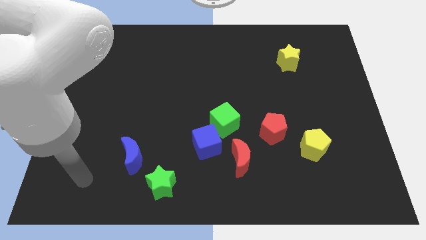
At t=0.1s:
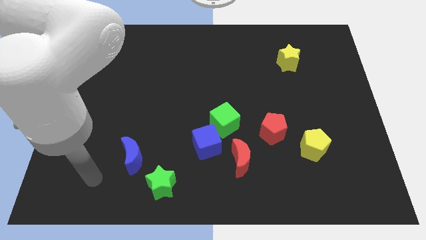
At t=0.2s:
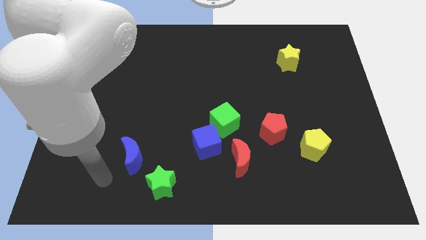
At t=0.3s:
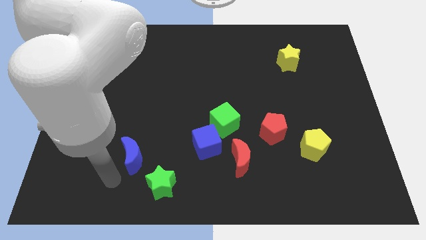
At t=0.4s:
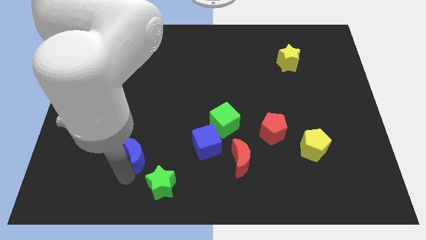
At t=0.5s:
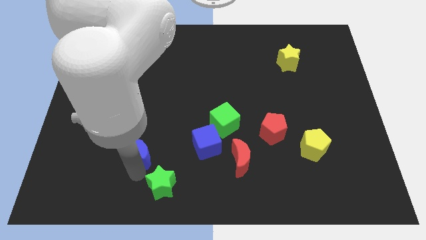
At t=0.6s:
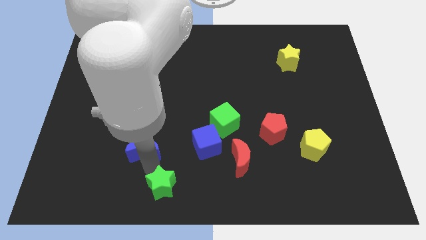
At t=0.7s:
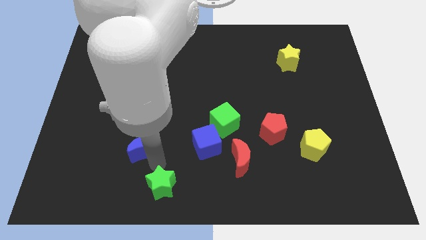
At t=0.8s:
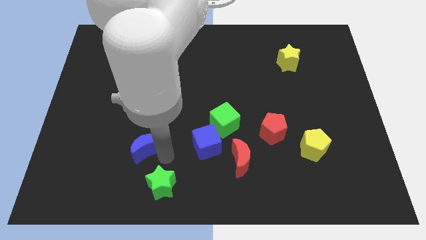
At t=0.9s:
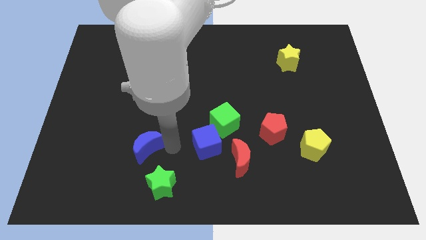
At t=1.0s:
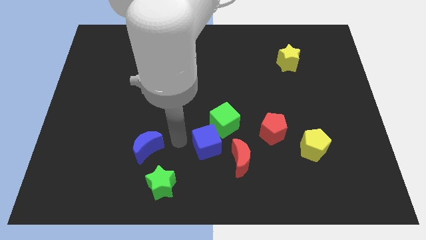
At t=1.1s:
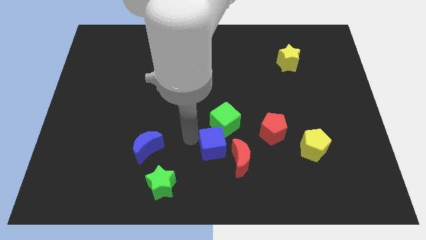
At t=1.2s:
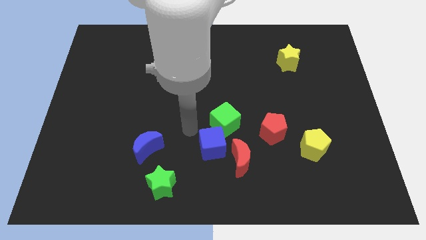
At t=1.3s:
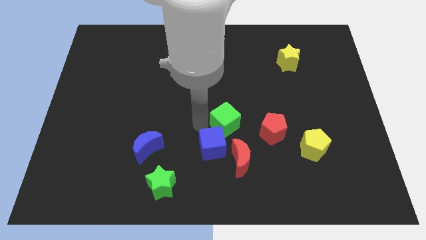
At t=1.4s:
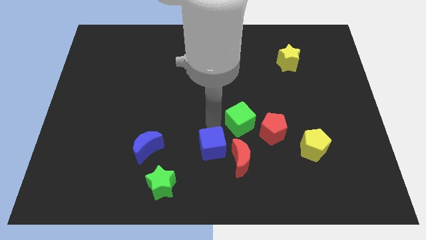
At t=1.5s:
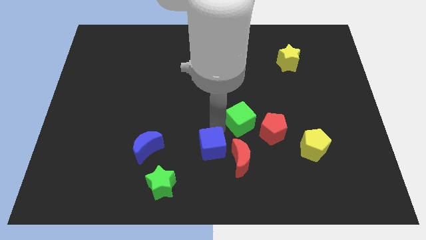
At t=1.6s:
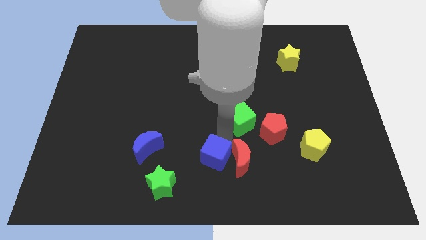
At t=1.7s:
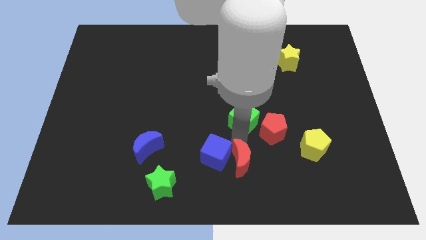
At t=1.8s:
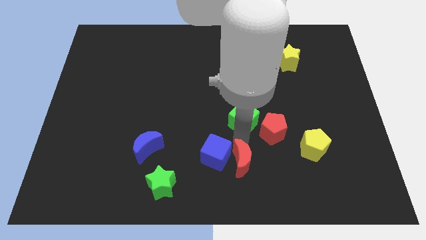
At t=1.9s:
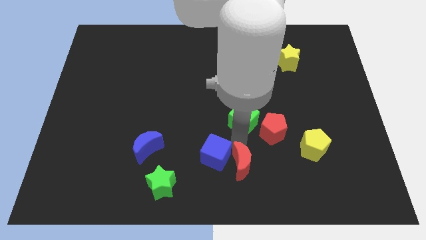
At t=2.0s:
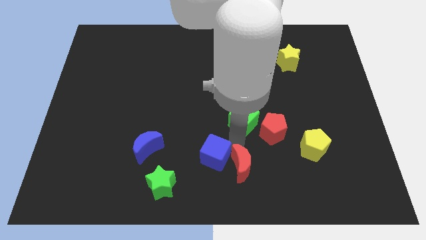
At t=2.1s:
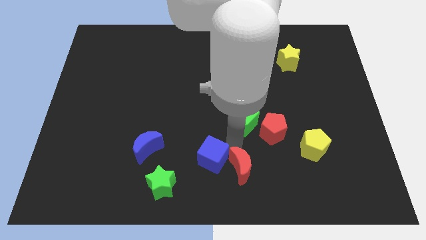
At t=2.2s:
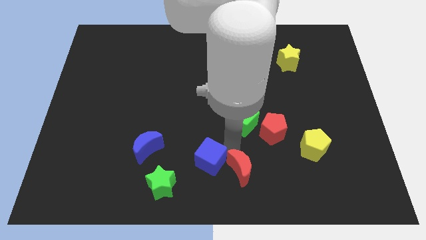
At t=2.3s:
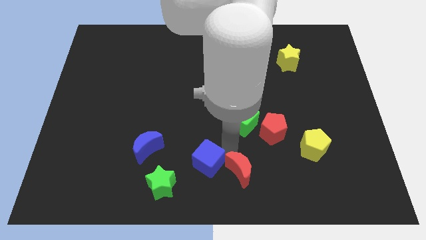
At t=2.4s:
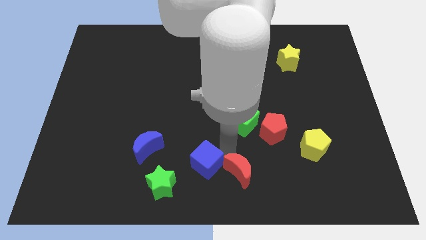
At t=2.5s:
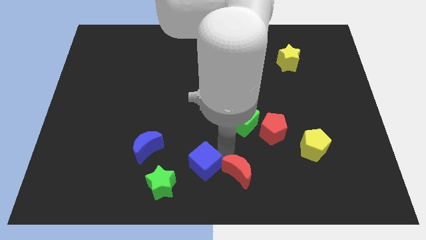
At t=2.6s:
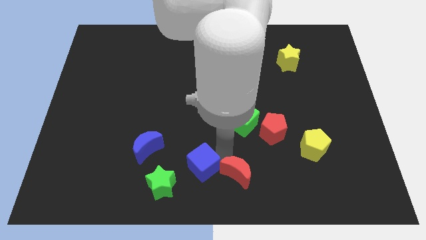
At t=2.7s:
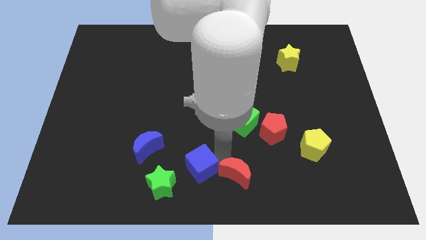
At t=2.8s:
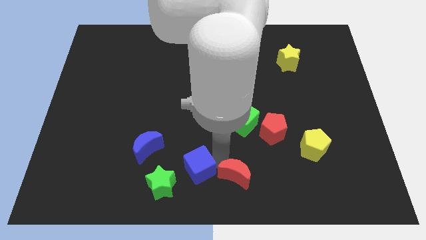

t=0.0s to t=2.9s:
move the blue cube away from the green cube and red moon

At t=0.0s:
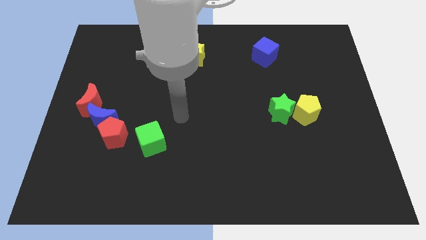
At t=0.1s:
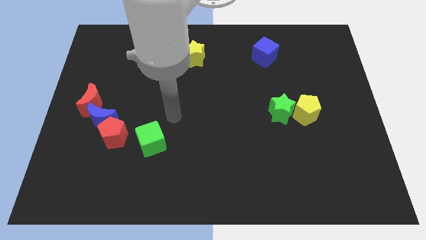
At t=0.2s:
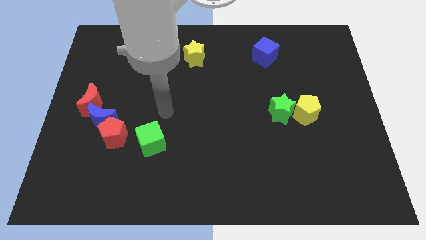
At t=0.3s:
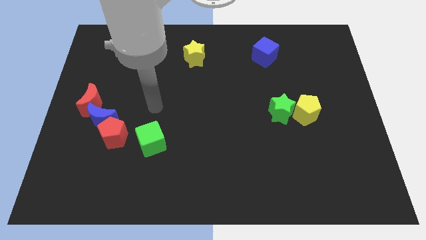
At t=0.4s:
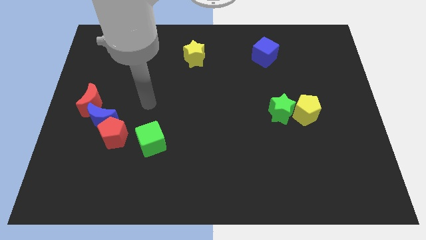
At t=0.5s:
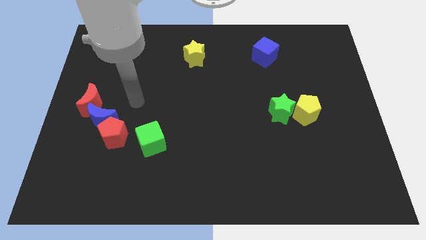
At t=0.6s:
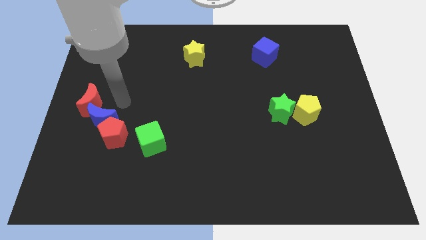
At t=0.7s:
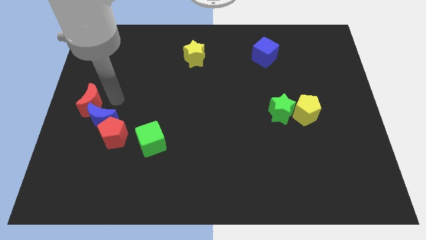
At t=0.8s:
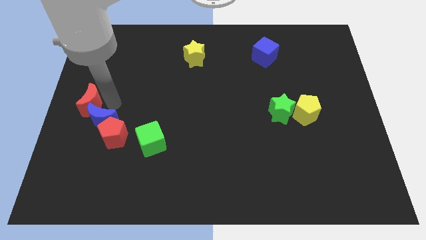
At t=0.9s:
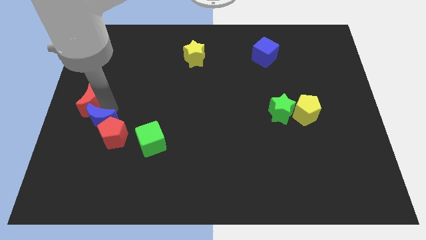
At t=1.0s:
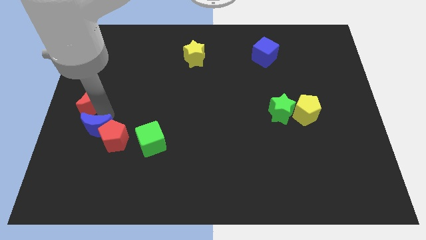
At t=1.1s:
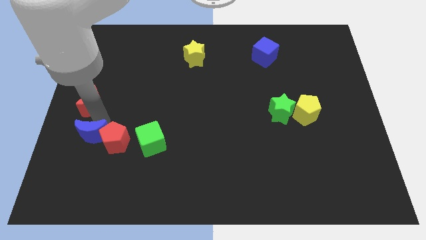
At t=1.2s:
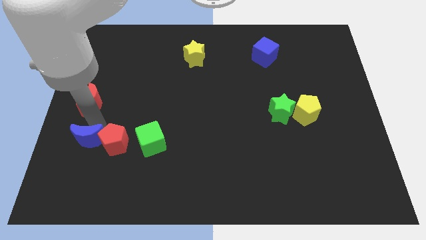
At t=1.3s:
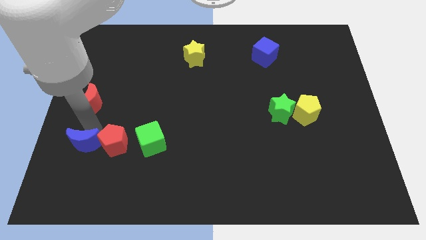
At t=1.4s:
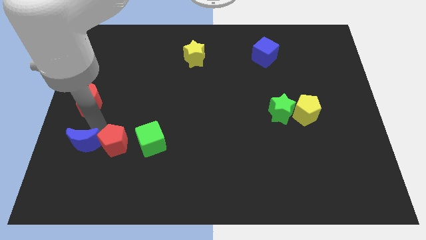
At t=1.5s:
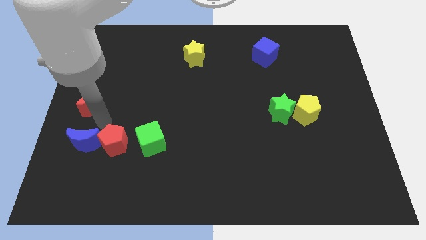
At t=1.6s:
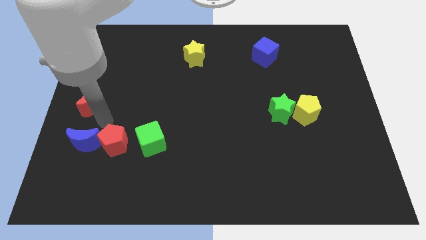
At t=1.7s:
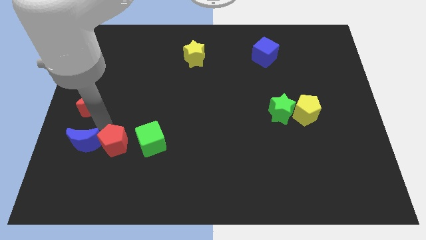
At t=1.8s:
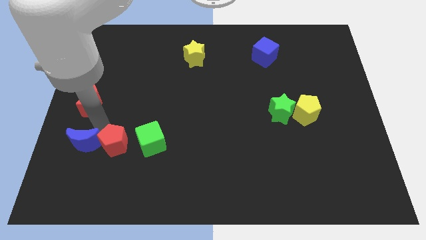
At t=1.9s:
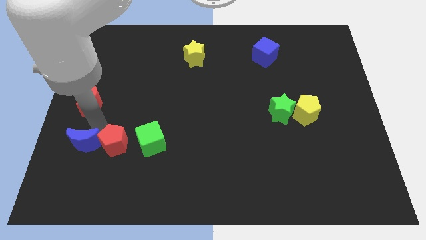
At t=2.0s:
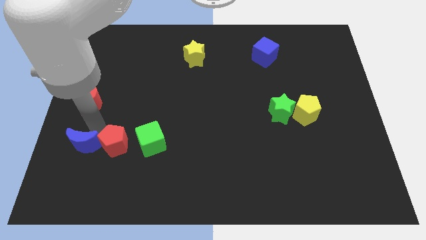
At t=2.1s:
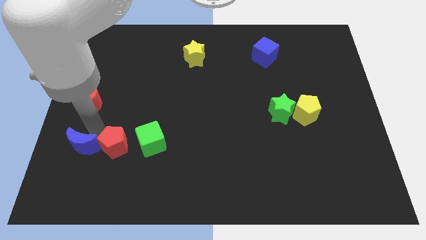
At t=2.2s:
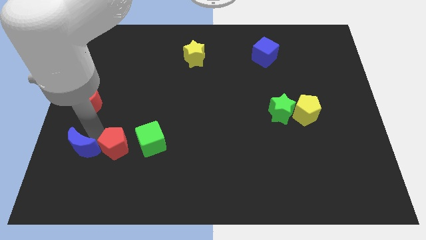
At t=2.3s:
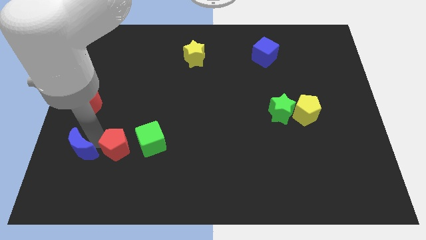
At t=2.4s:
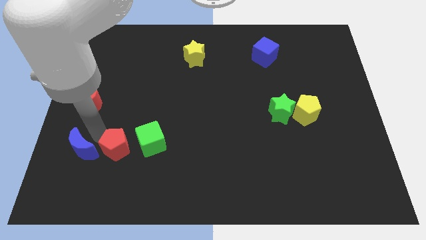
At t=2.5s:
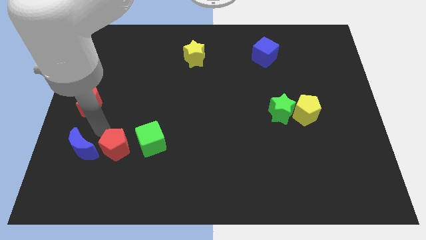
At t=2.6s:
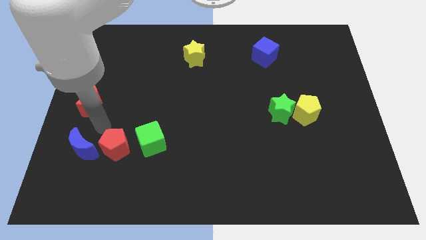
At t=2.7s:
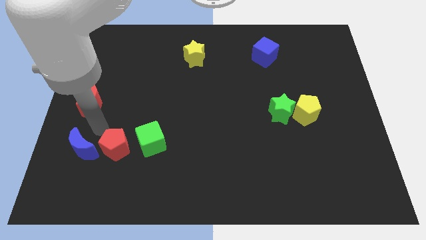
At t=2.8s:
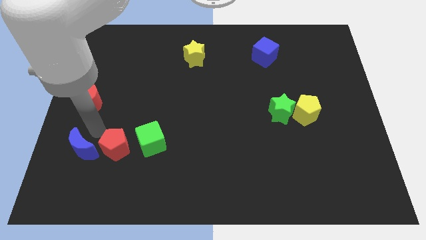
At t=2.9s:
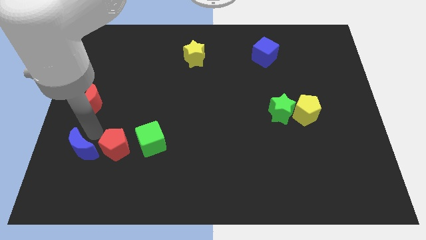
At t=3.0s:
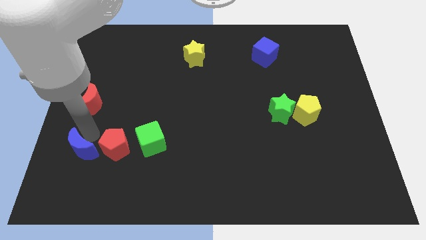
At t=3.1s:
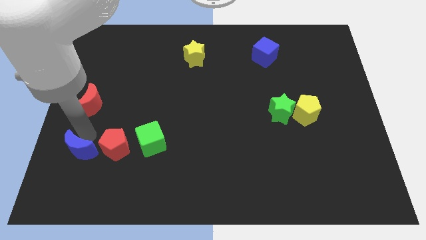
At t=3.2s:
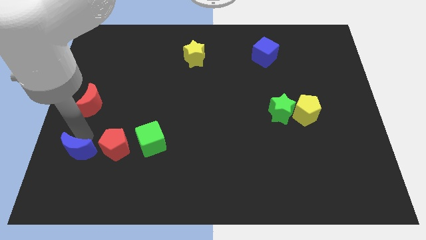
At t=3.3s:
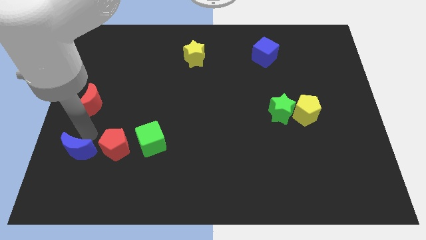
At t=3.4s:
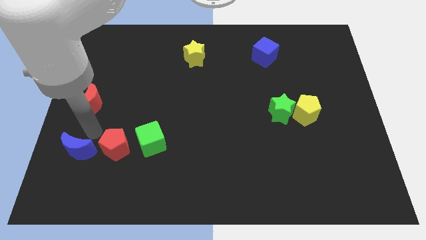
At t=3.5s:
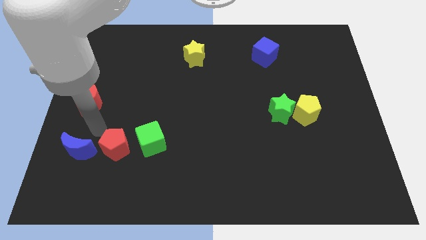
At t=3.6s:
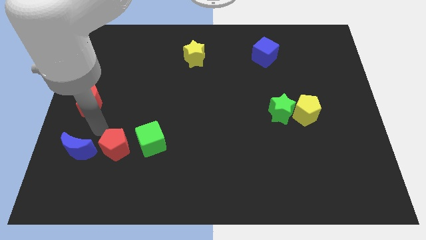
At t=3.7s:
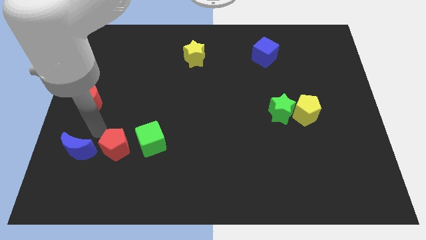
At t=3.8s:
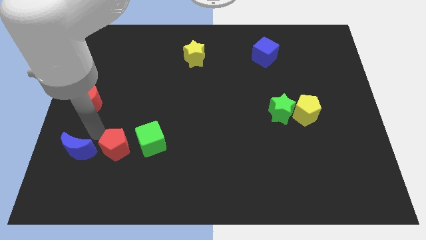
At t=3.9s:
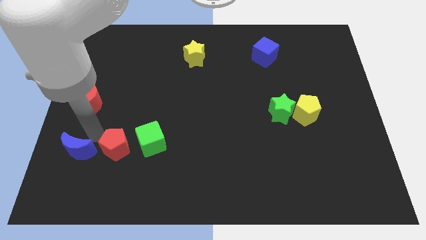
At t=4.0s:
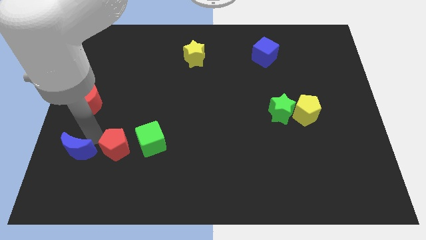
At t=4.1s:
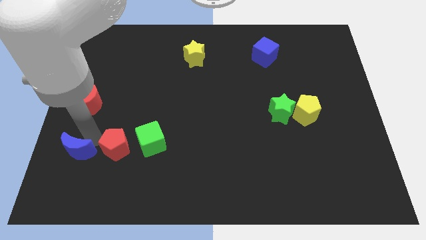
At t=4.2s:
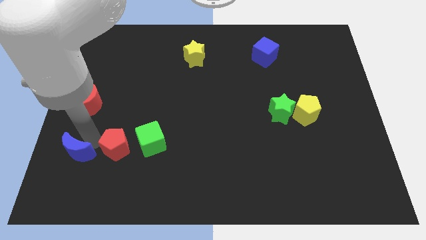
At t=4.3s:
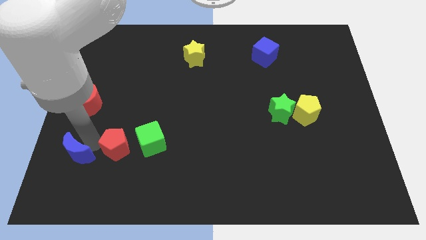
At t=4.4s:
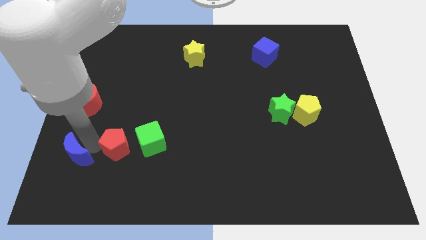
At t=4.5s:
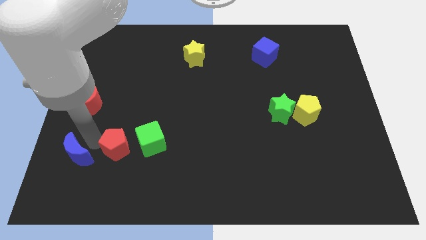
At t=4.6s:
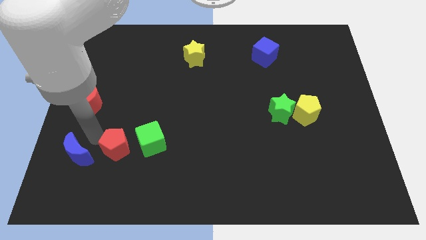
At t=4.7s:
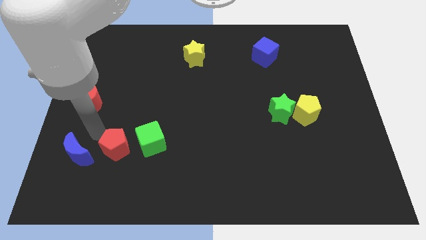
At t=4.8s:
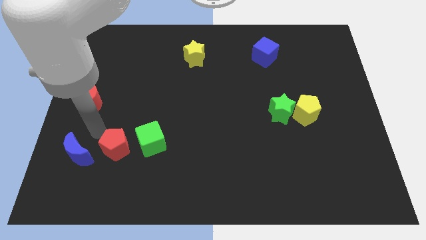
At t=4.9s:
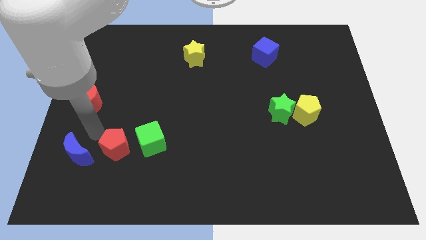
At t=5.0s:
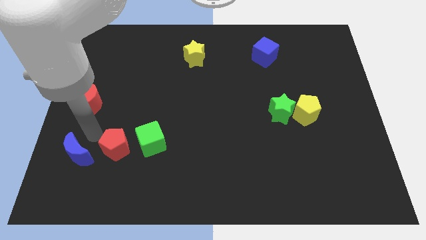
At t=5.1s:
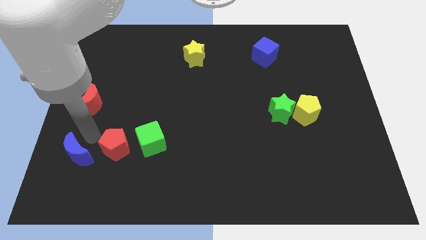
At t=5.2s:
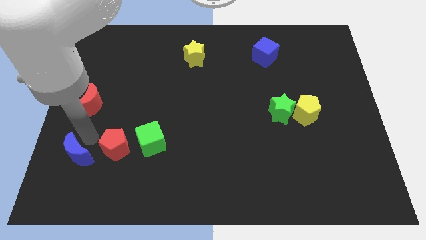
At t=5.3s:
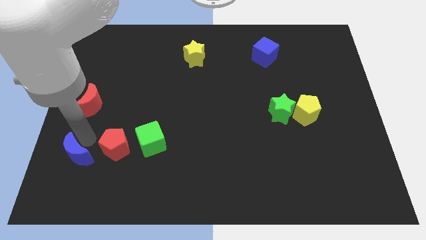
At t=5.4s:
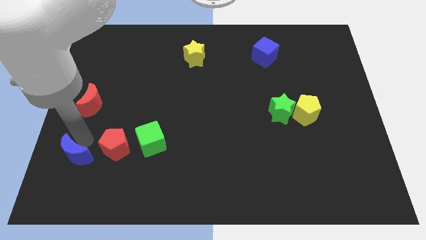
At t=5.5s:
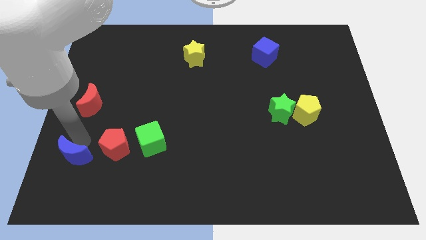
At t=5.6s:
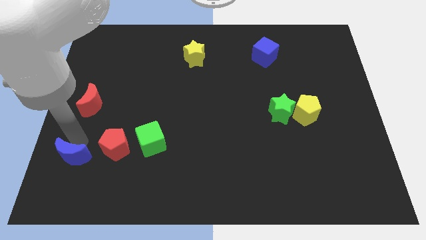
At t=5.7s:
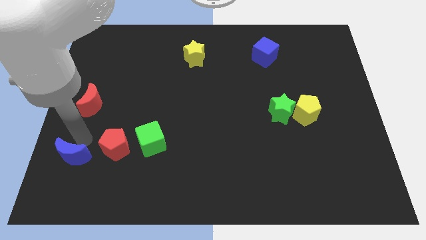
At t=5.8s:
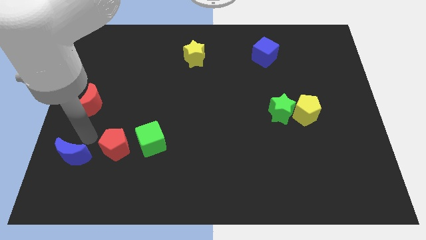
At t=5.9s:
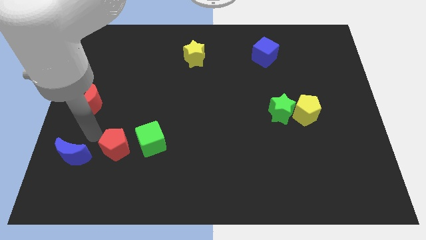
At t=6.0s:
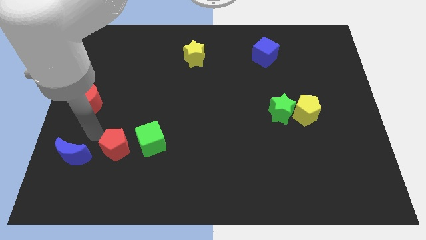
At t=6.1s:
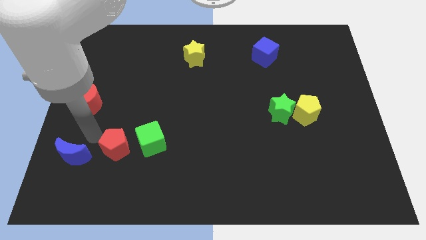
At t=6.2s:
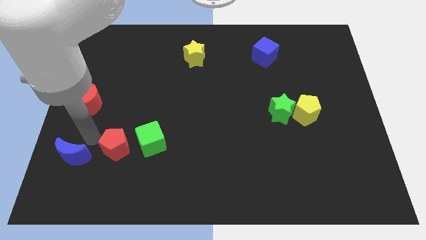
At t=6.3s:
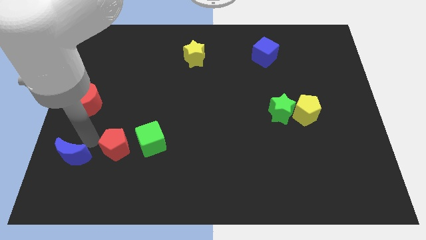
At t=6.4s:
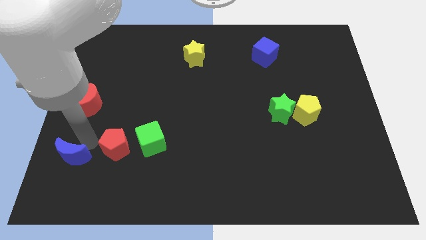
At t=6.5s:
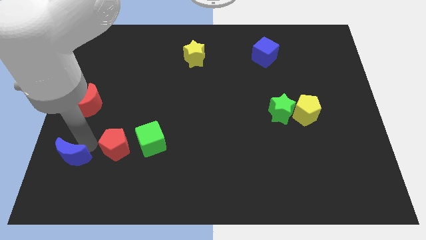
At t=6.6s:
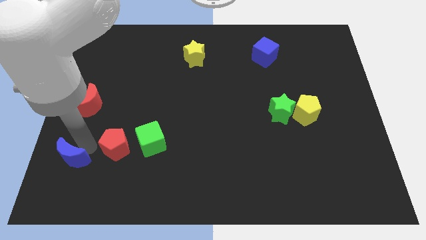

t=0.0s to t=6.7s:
pull the blue moon apart from the red pentagon and red moon
